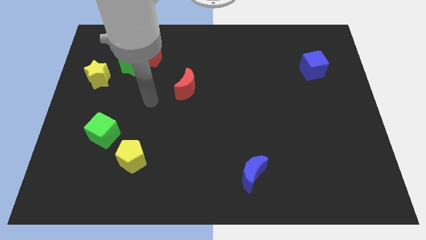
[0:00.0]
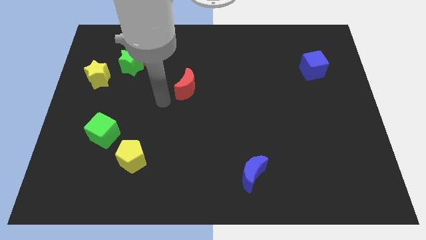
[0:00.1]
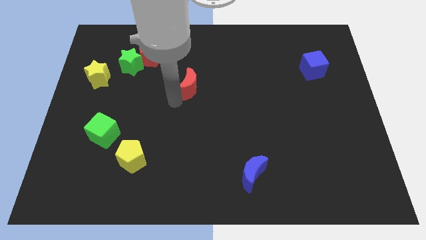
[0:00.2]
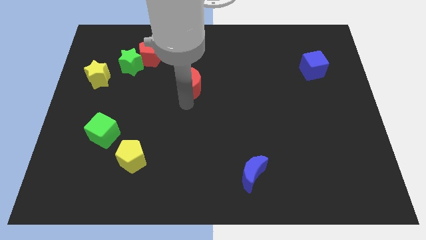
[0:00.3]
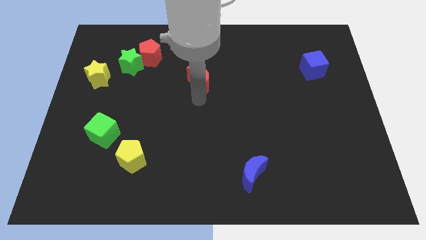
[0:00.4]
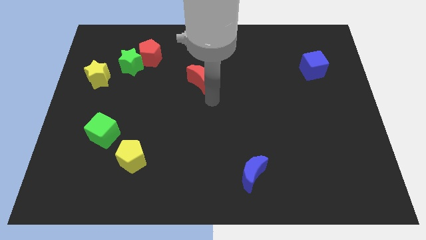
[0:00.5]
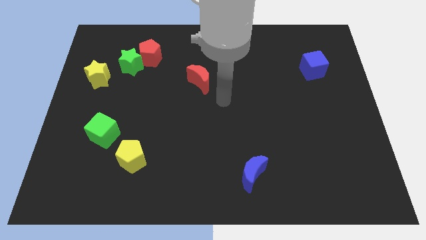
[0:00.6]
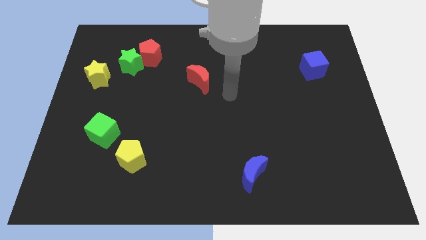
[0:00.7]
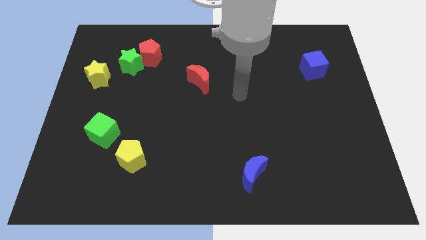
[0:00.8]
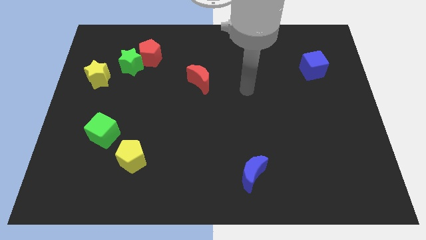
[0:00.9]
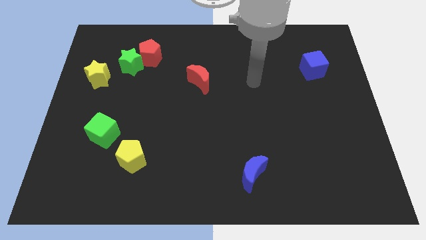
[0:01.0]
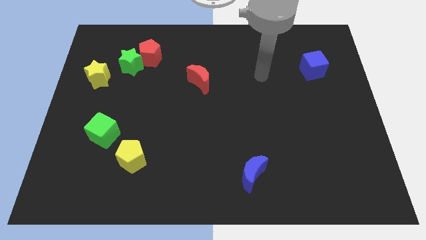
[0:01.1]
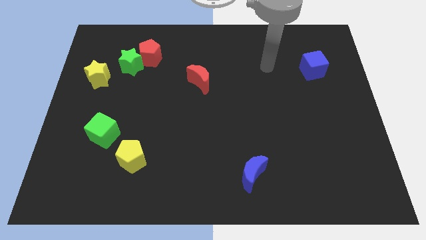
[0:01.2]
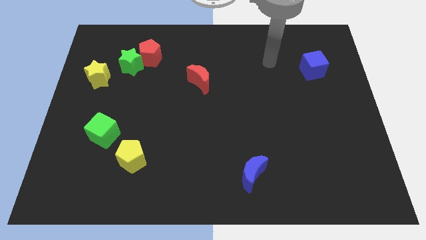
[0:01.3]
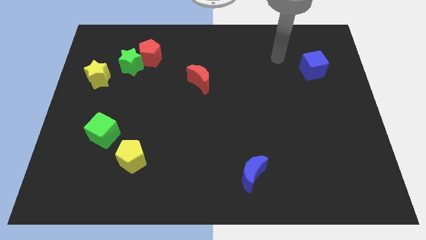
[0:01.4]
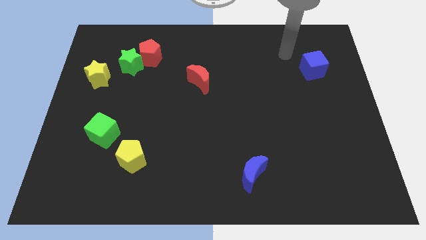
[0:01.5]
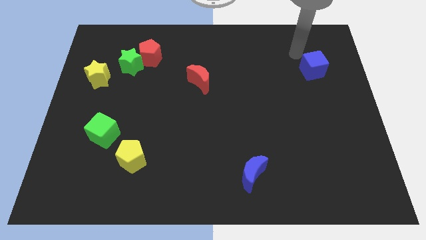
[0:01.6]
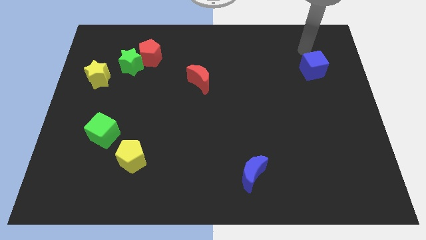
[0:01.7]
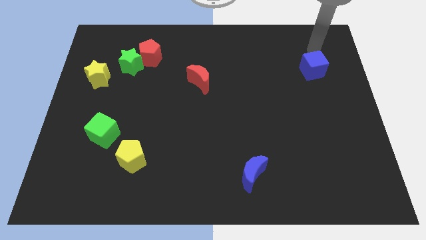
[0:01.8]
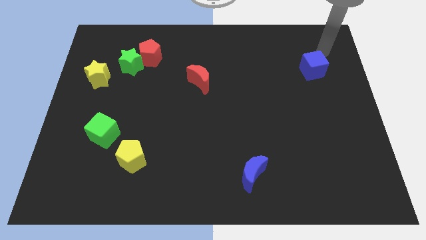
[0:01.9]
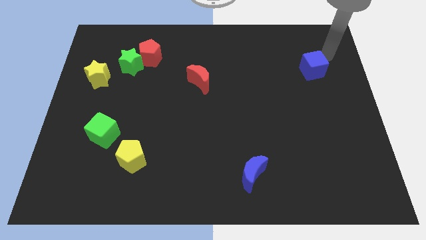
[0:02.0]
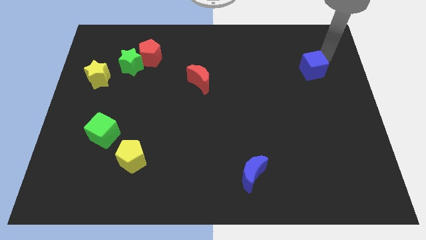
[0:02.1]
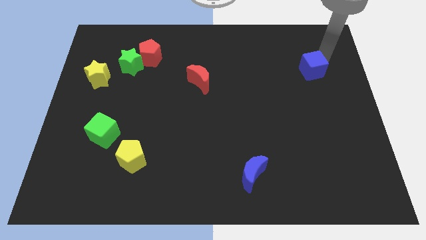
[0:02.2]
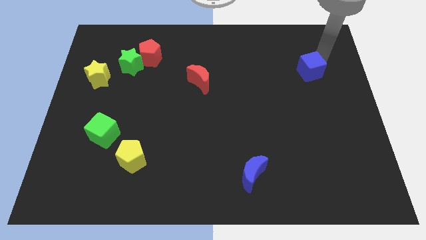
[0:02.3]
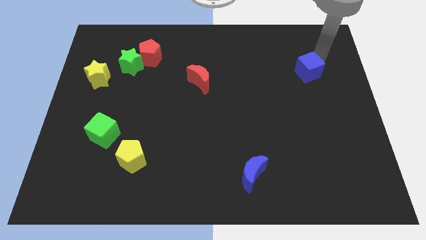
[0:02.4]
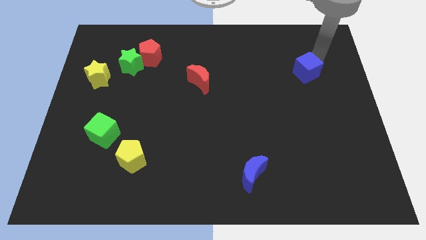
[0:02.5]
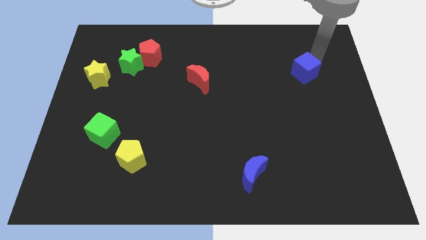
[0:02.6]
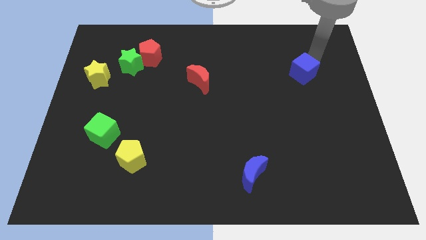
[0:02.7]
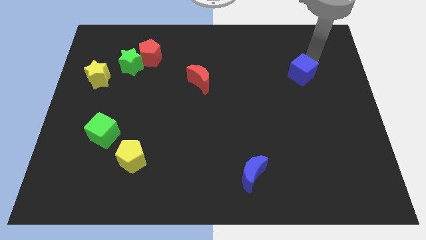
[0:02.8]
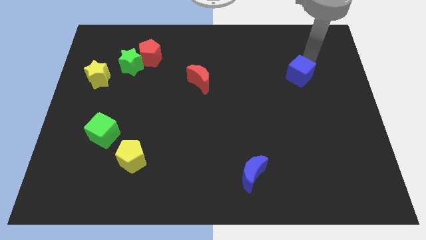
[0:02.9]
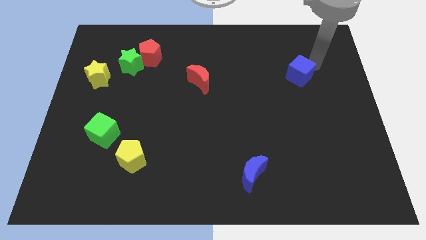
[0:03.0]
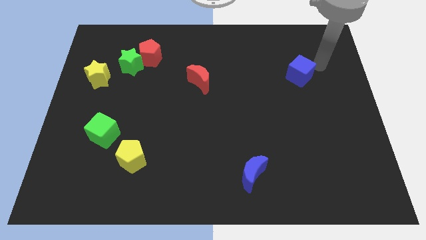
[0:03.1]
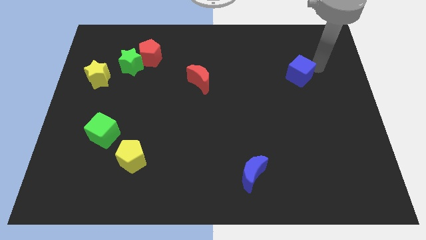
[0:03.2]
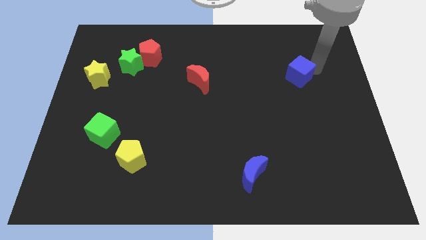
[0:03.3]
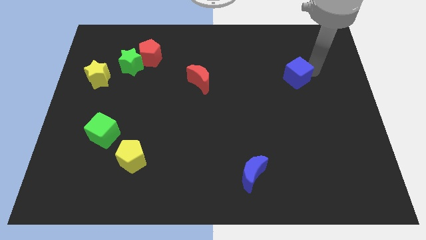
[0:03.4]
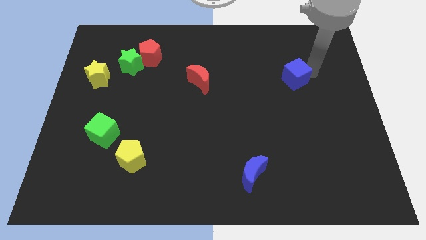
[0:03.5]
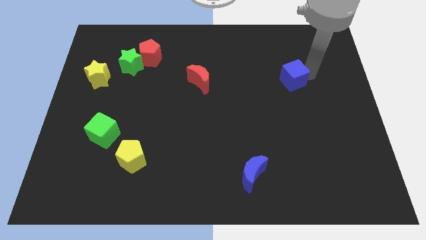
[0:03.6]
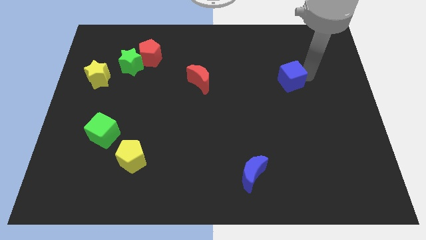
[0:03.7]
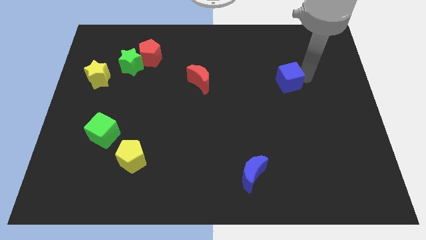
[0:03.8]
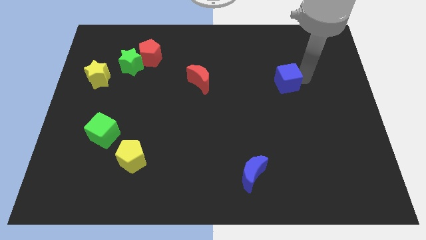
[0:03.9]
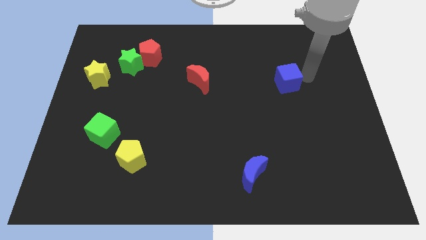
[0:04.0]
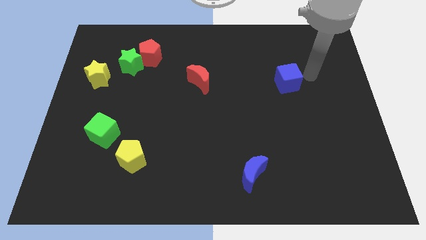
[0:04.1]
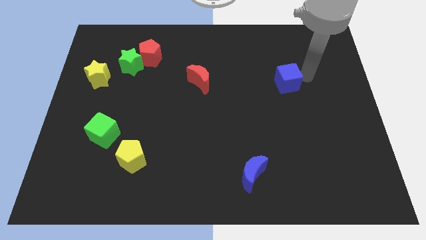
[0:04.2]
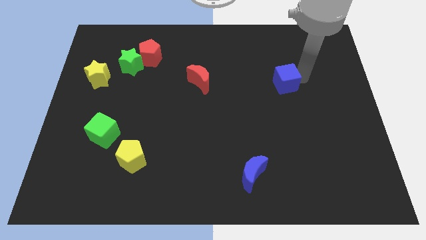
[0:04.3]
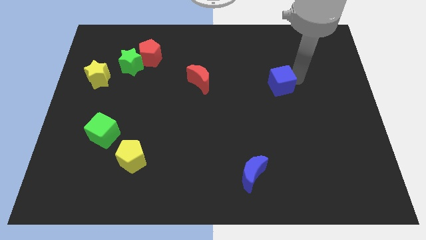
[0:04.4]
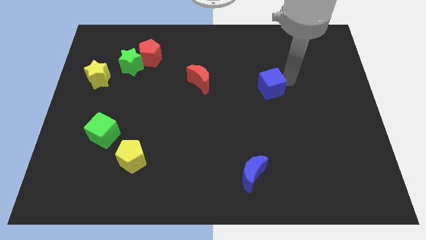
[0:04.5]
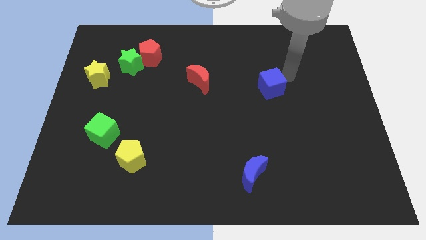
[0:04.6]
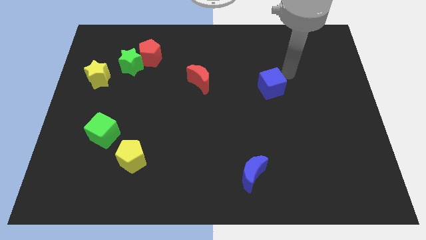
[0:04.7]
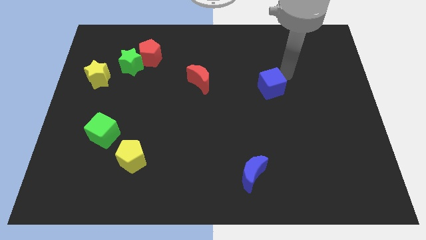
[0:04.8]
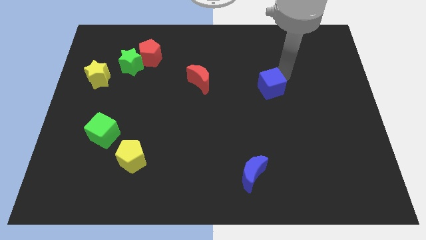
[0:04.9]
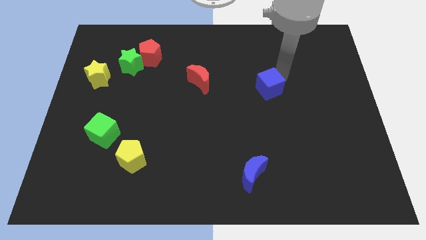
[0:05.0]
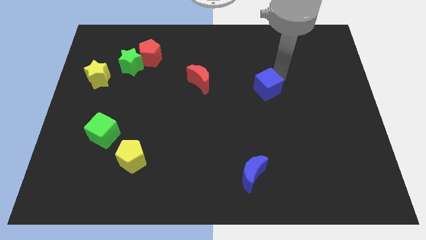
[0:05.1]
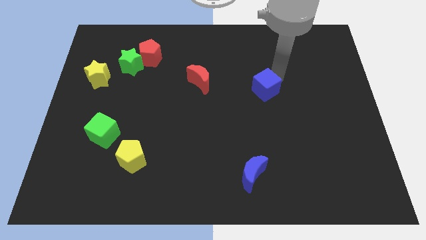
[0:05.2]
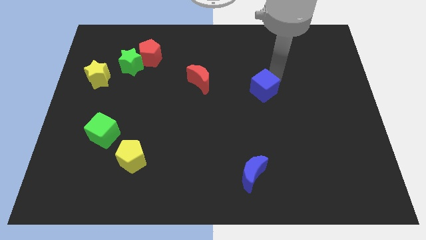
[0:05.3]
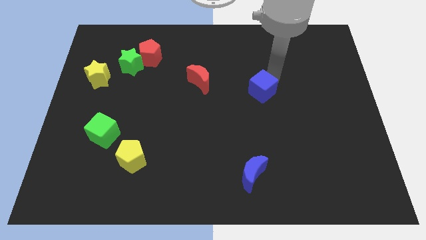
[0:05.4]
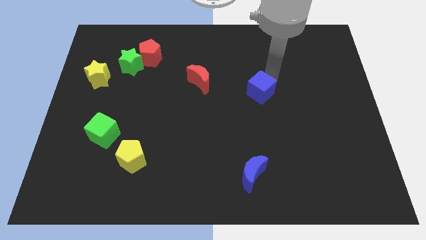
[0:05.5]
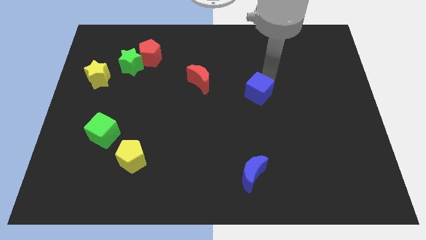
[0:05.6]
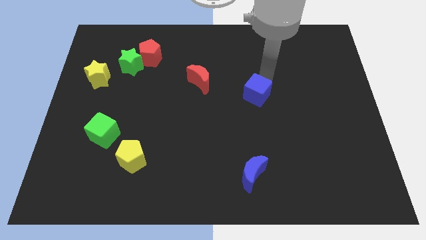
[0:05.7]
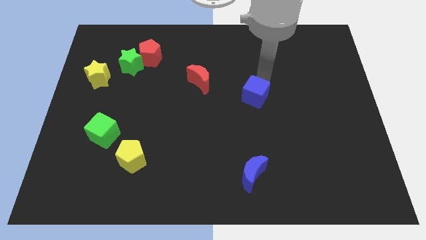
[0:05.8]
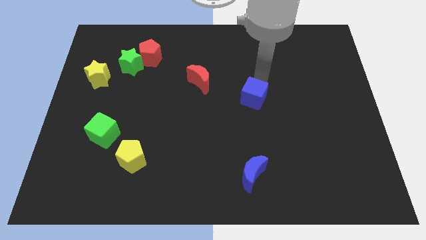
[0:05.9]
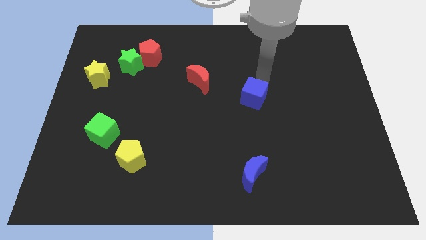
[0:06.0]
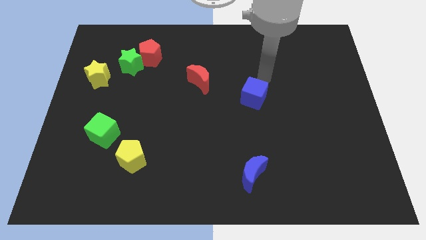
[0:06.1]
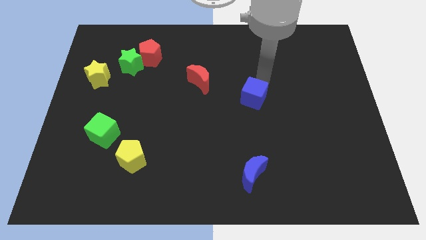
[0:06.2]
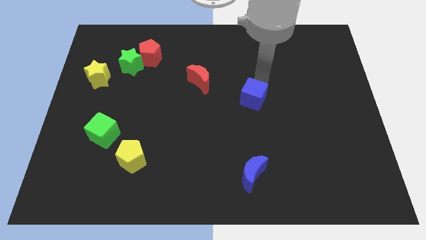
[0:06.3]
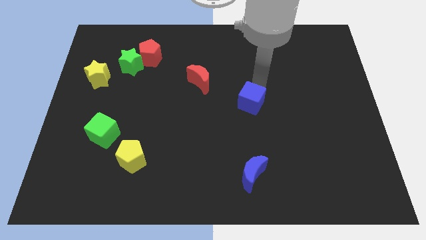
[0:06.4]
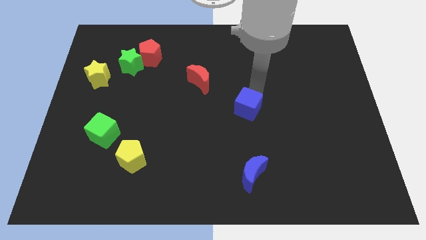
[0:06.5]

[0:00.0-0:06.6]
slide the blue cube down and to the left

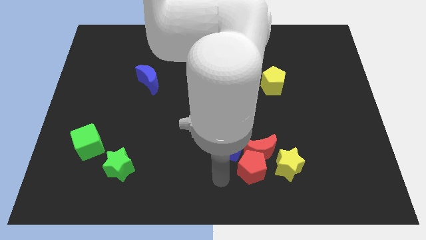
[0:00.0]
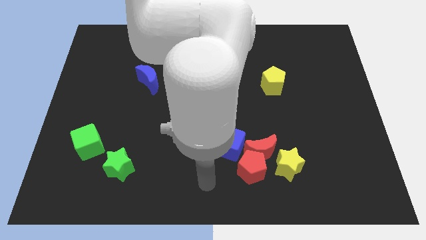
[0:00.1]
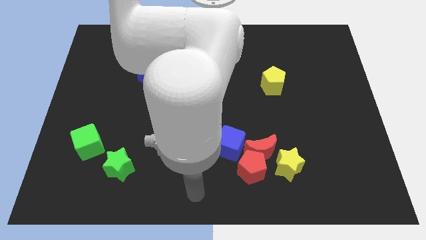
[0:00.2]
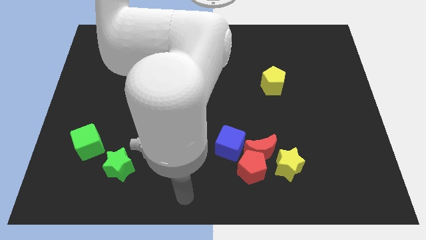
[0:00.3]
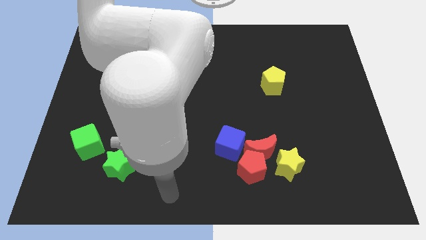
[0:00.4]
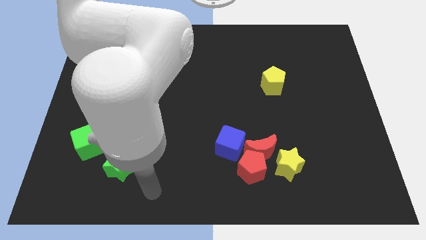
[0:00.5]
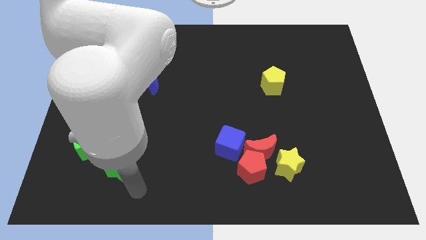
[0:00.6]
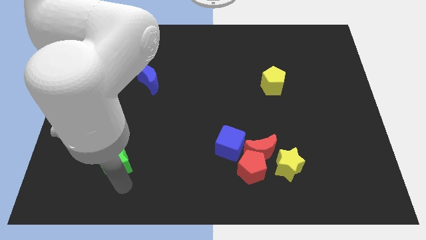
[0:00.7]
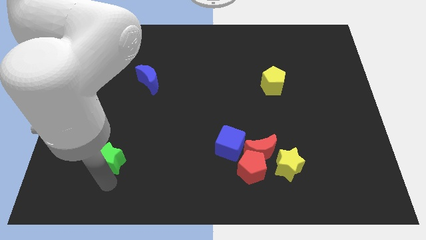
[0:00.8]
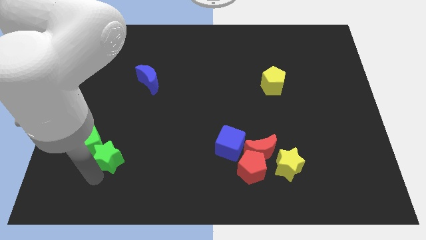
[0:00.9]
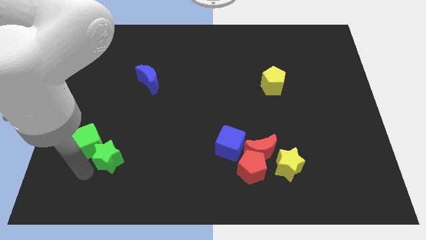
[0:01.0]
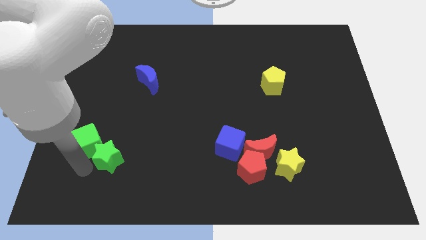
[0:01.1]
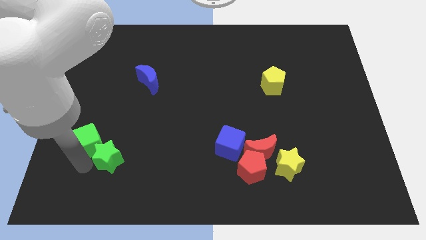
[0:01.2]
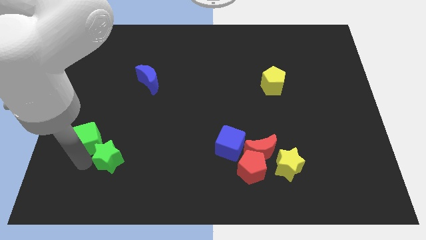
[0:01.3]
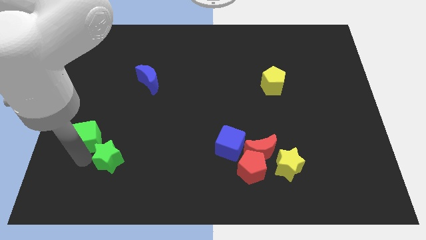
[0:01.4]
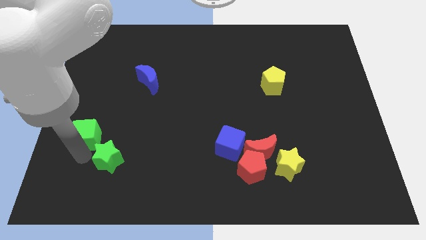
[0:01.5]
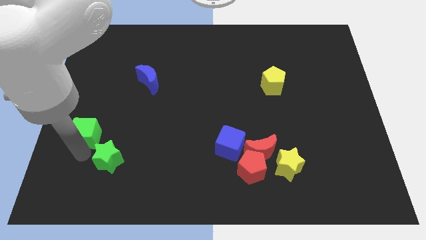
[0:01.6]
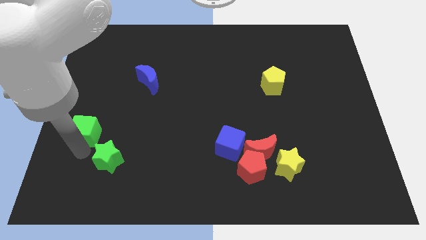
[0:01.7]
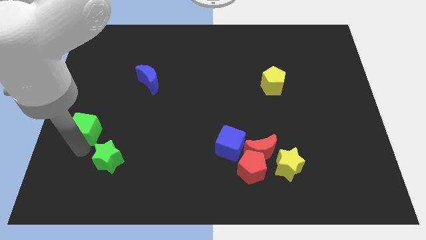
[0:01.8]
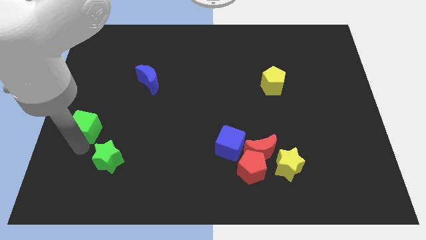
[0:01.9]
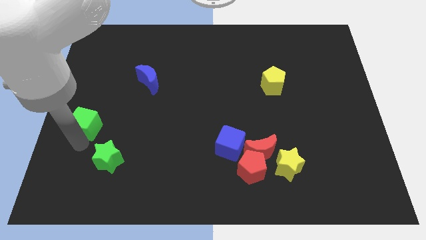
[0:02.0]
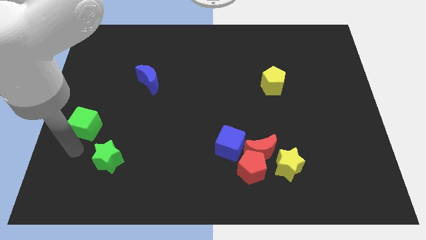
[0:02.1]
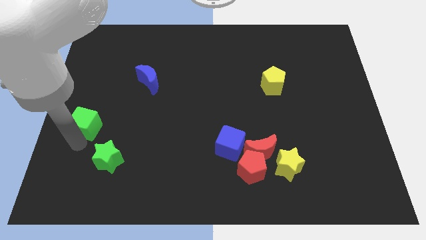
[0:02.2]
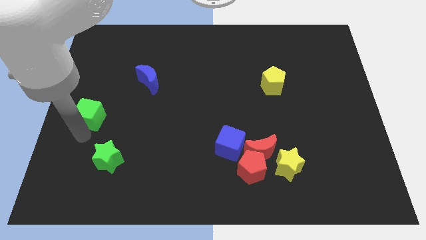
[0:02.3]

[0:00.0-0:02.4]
push the green cube slightly up
